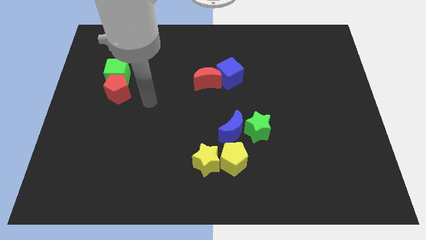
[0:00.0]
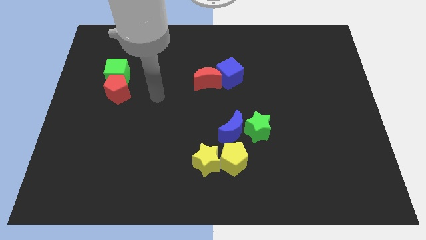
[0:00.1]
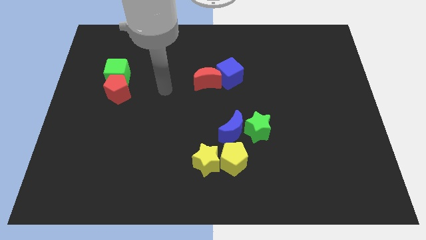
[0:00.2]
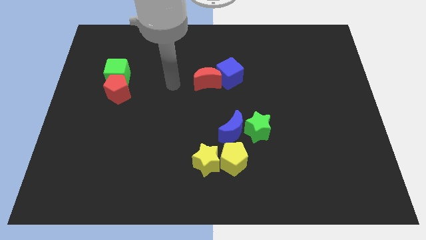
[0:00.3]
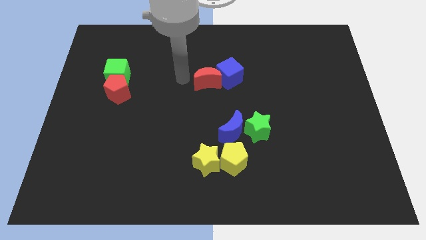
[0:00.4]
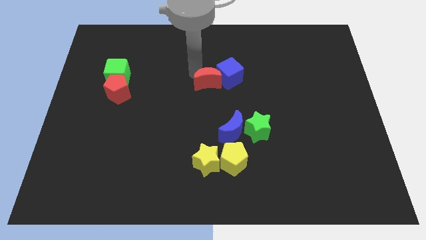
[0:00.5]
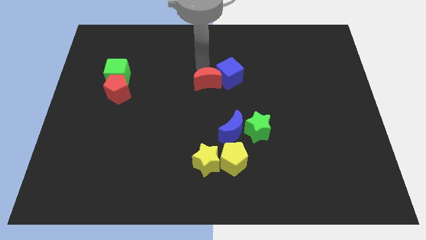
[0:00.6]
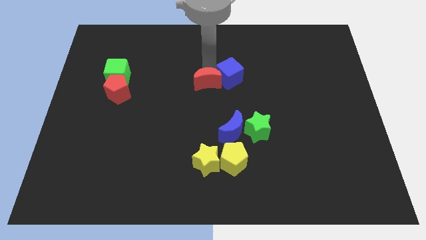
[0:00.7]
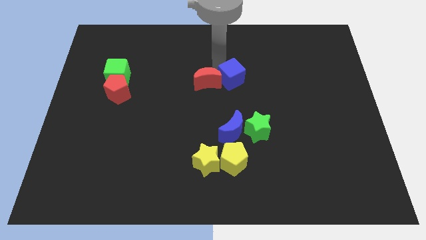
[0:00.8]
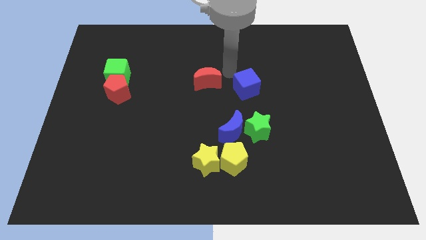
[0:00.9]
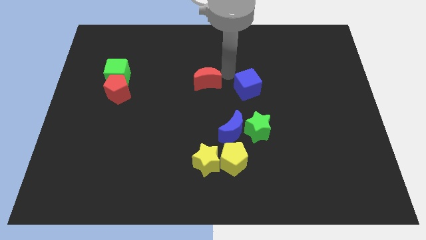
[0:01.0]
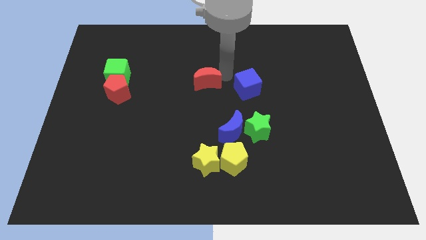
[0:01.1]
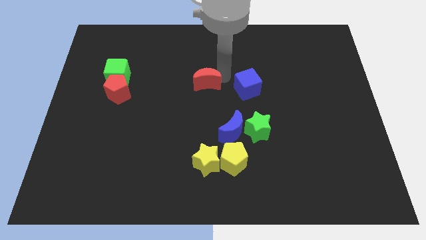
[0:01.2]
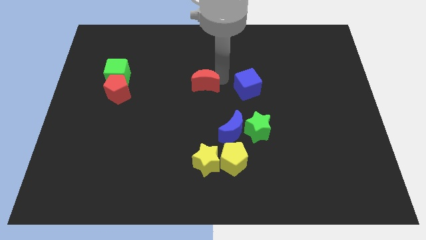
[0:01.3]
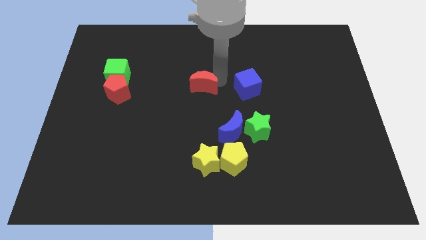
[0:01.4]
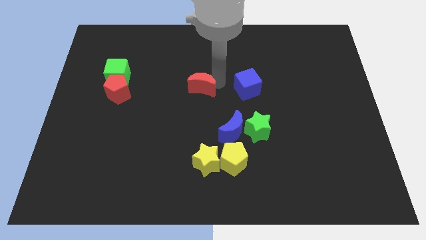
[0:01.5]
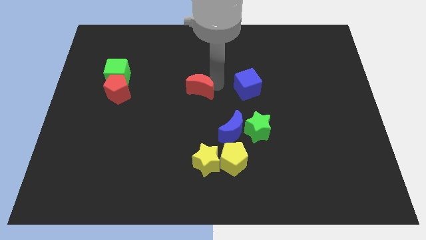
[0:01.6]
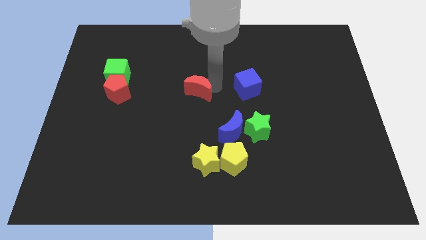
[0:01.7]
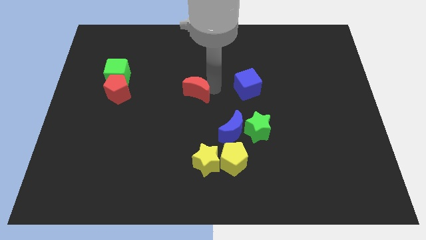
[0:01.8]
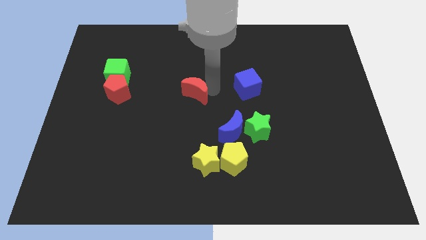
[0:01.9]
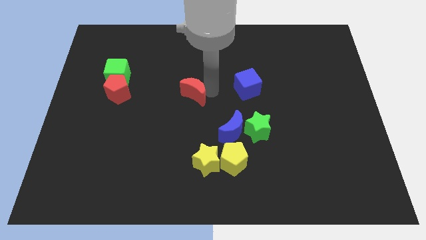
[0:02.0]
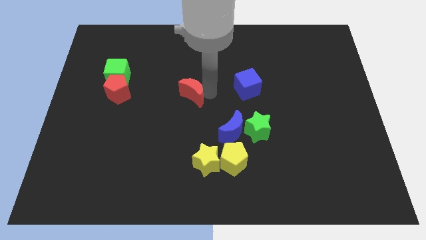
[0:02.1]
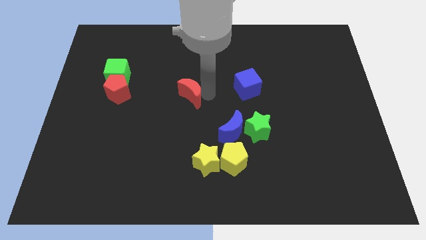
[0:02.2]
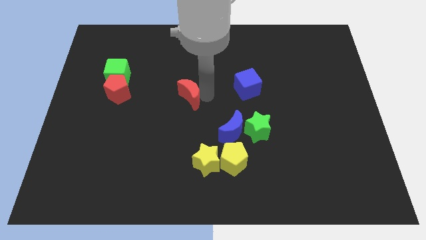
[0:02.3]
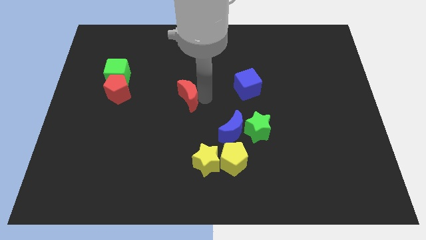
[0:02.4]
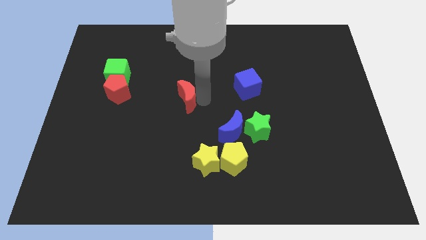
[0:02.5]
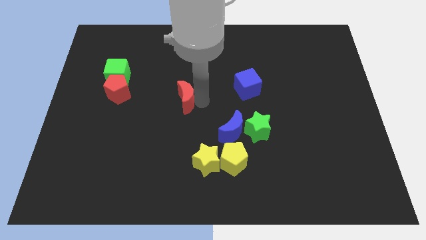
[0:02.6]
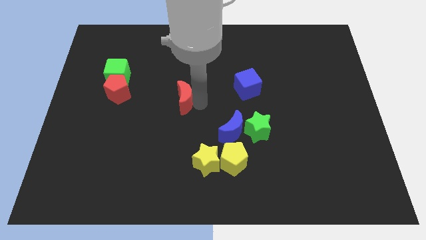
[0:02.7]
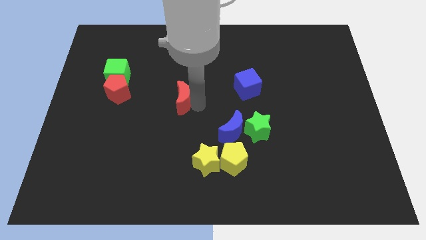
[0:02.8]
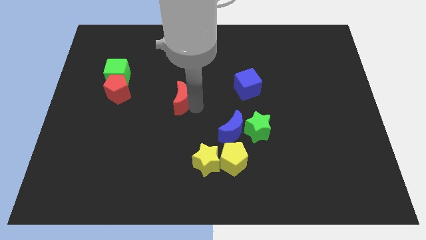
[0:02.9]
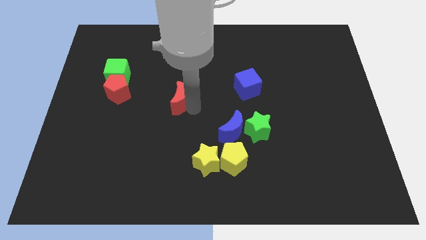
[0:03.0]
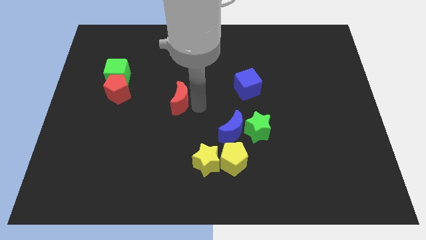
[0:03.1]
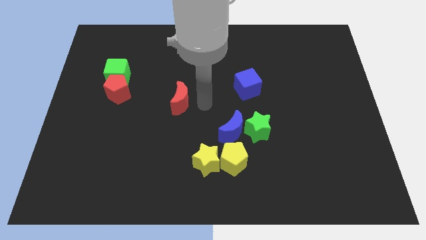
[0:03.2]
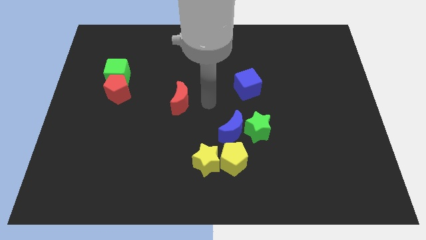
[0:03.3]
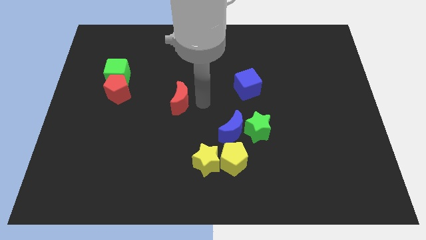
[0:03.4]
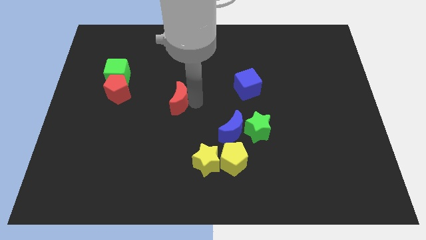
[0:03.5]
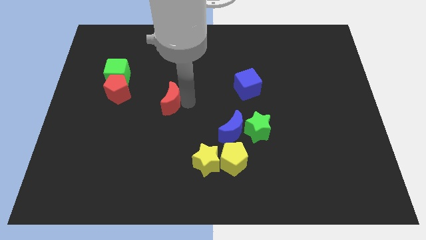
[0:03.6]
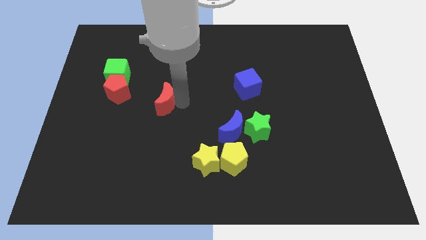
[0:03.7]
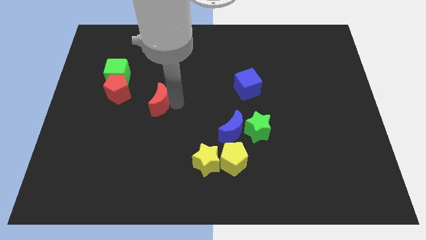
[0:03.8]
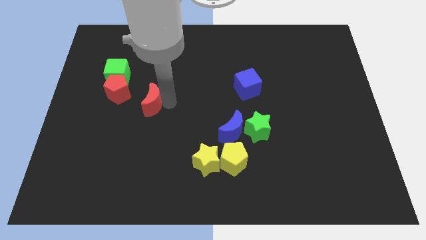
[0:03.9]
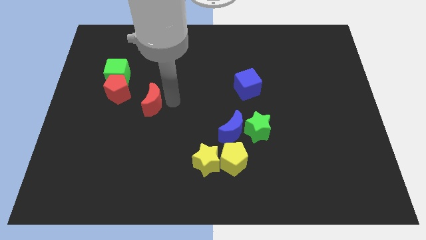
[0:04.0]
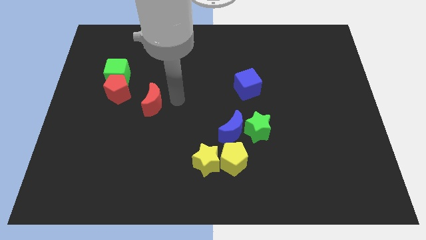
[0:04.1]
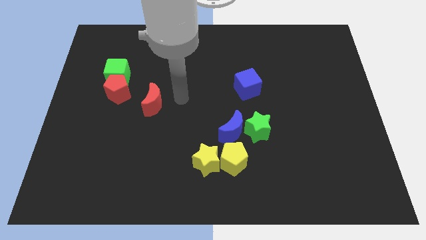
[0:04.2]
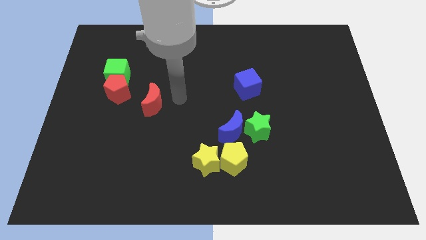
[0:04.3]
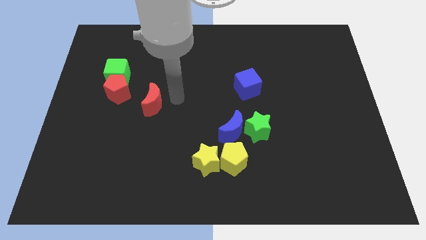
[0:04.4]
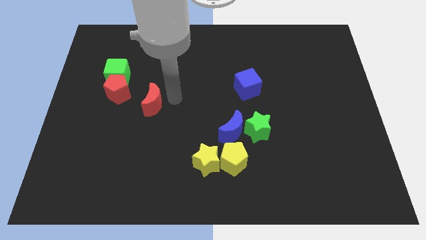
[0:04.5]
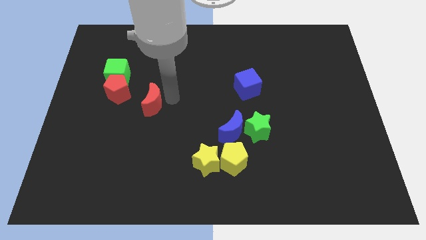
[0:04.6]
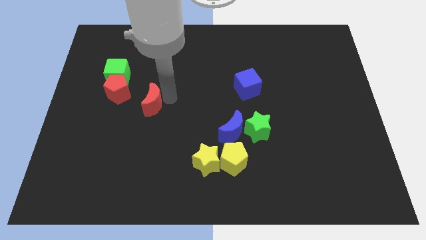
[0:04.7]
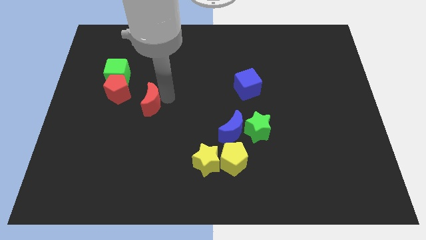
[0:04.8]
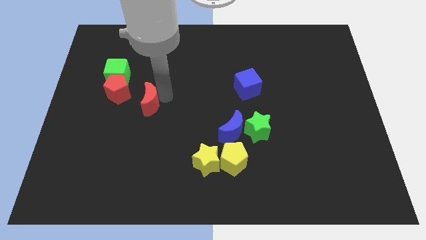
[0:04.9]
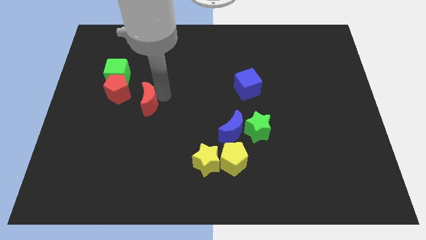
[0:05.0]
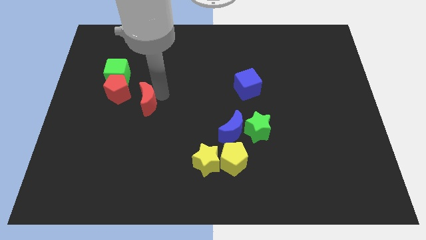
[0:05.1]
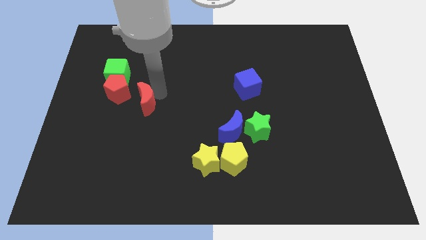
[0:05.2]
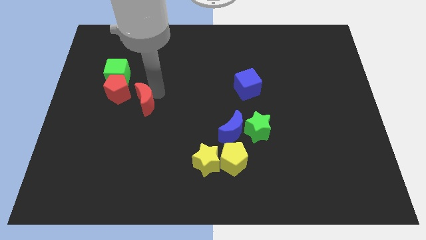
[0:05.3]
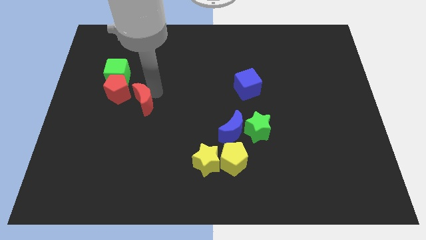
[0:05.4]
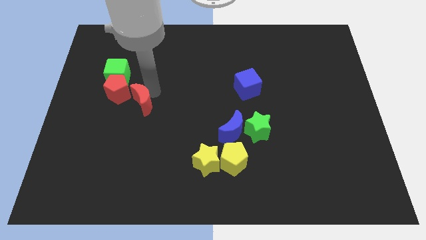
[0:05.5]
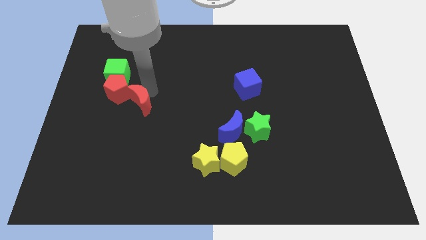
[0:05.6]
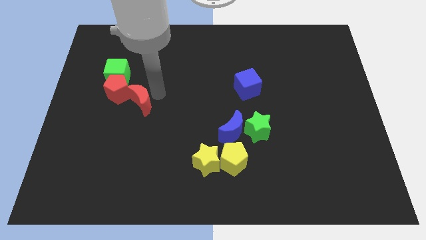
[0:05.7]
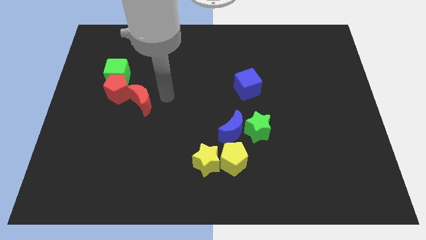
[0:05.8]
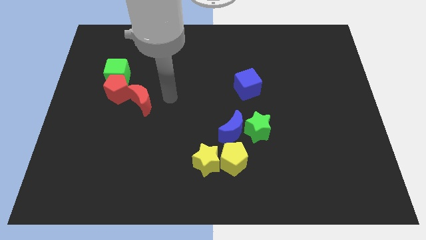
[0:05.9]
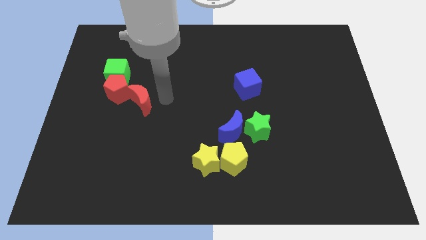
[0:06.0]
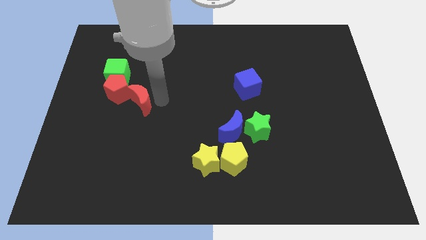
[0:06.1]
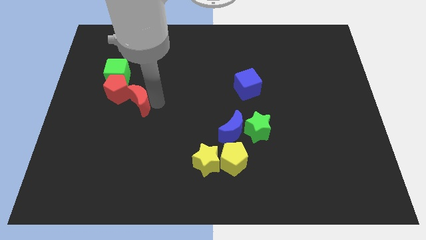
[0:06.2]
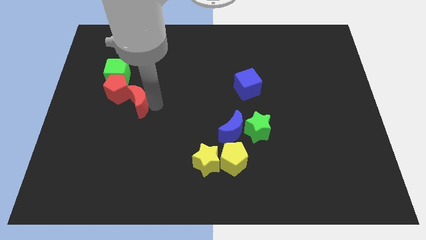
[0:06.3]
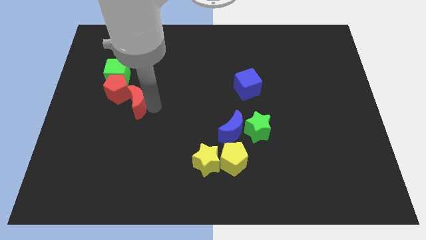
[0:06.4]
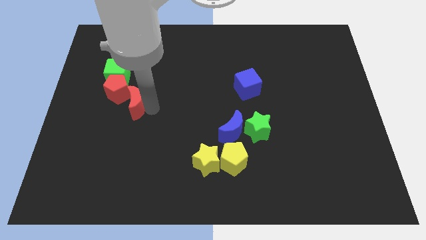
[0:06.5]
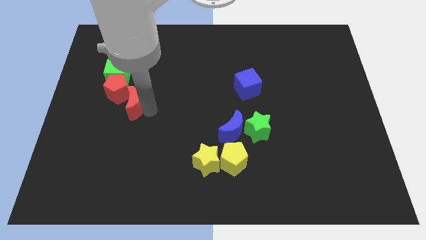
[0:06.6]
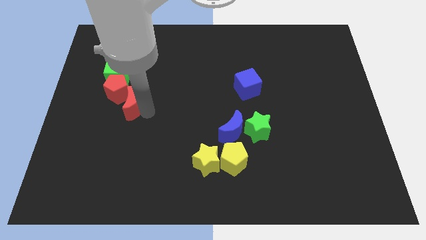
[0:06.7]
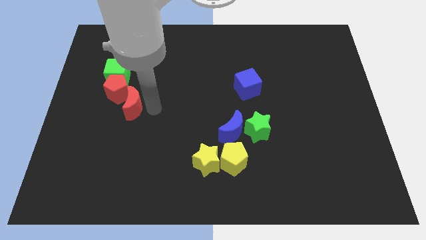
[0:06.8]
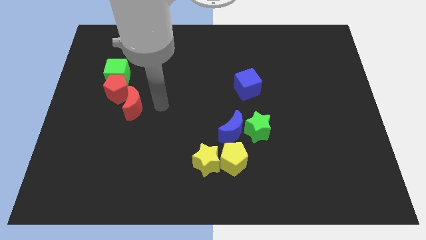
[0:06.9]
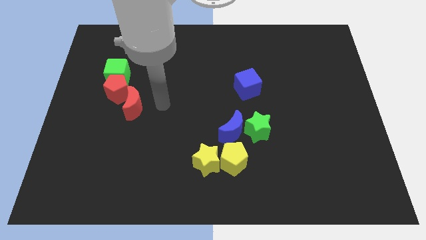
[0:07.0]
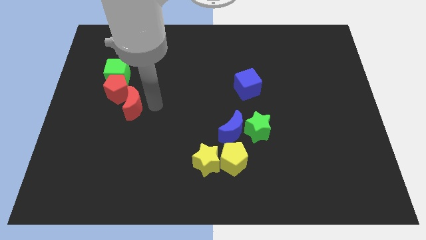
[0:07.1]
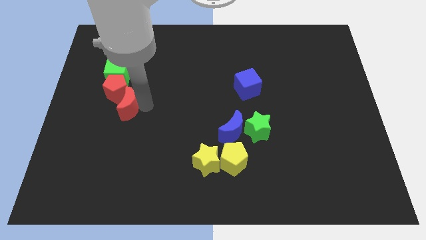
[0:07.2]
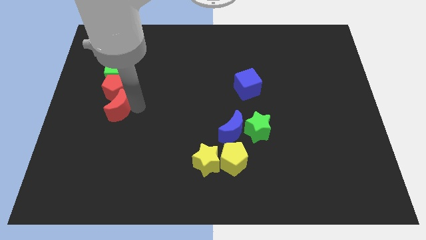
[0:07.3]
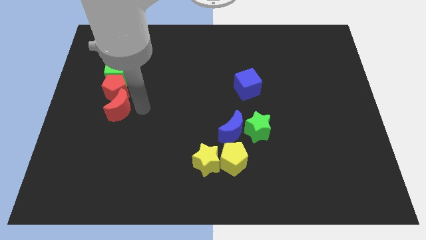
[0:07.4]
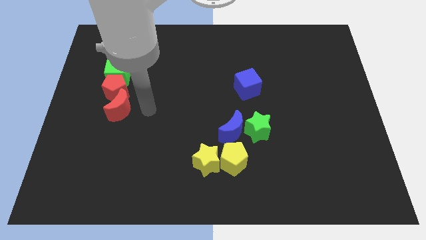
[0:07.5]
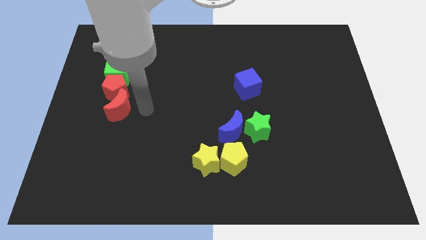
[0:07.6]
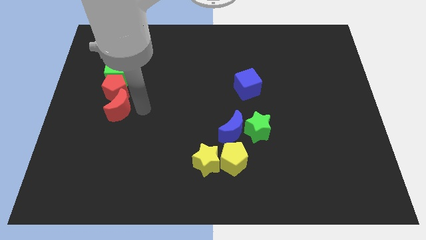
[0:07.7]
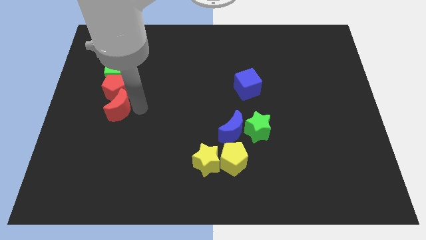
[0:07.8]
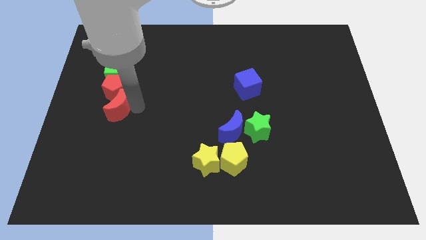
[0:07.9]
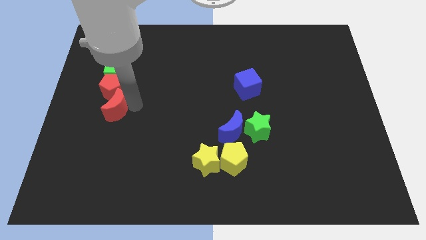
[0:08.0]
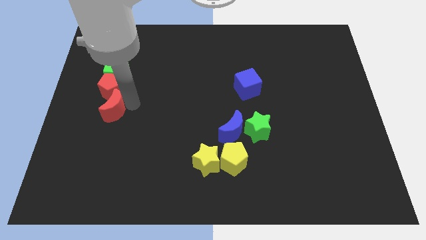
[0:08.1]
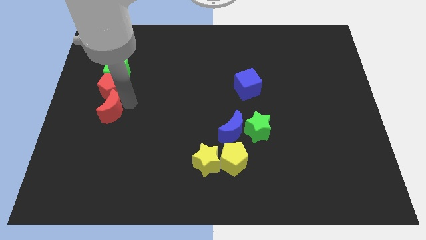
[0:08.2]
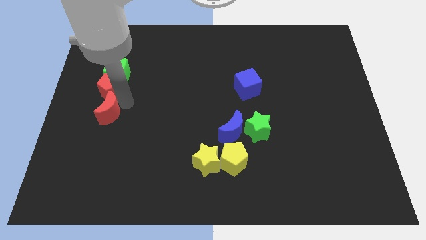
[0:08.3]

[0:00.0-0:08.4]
move the red moon to the bottom left of the red pentagon
